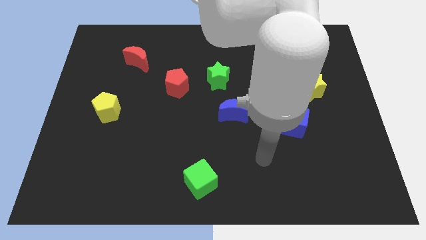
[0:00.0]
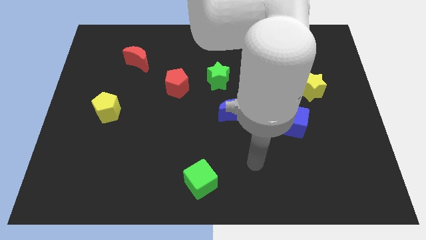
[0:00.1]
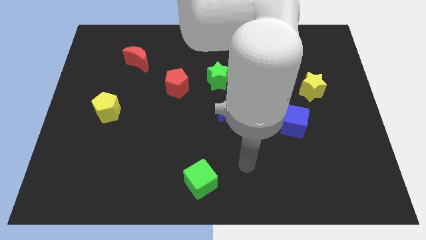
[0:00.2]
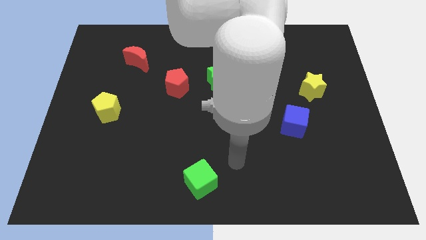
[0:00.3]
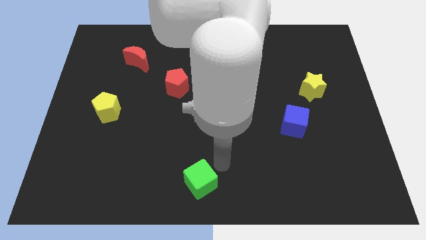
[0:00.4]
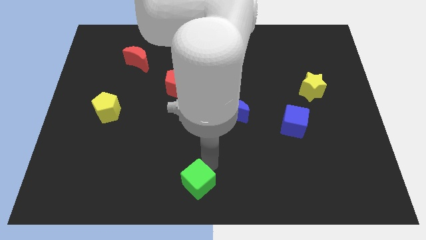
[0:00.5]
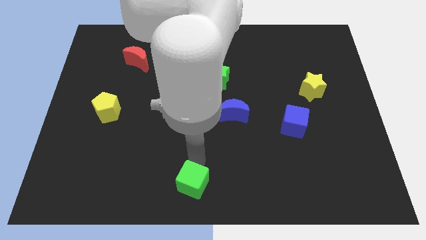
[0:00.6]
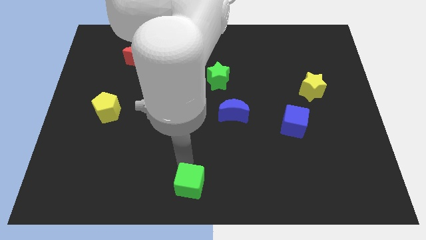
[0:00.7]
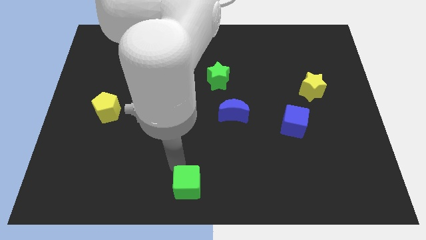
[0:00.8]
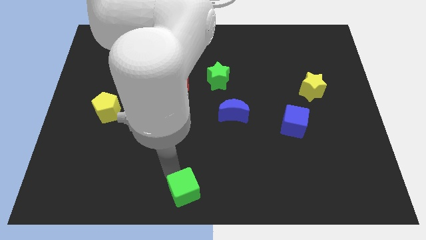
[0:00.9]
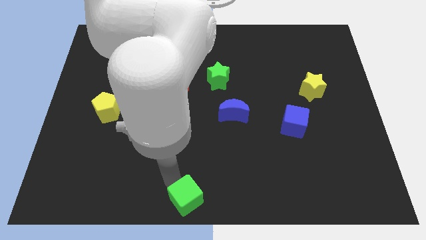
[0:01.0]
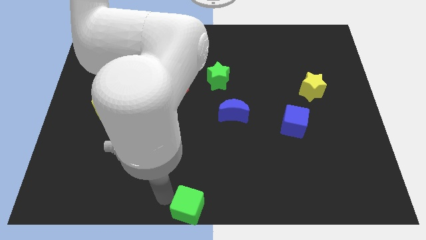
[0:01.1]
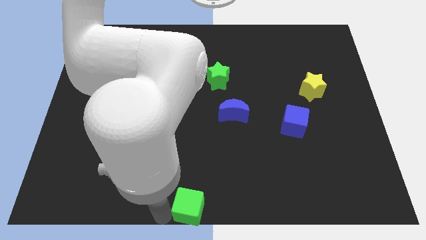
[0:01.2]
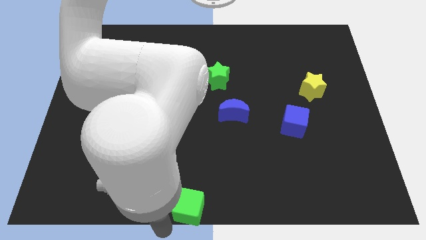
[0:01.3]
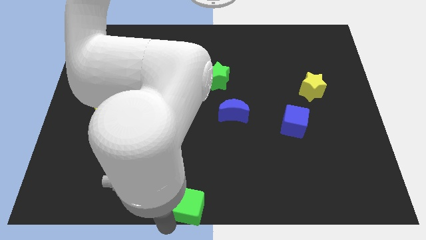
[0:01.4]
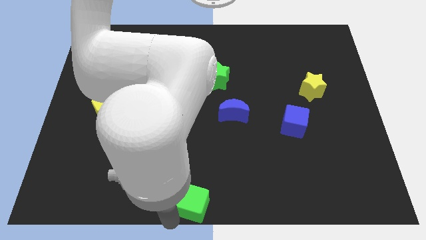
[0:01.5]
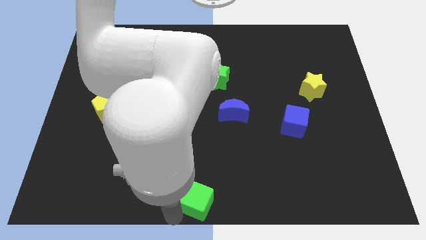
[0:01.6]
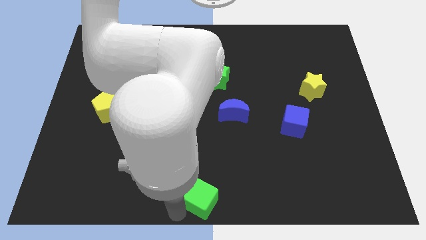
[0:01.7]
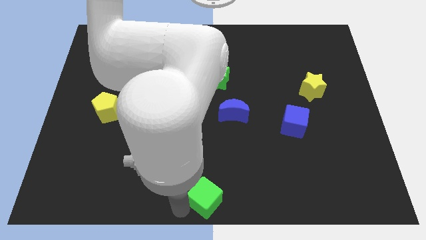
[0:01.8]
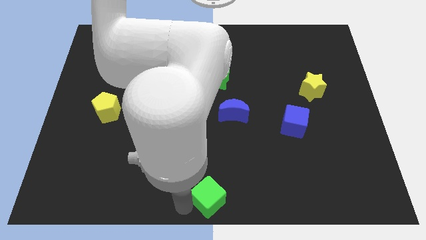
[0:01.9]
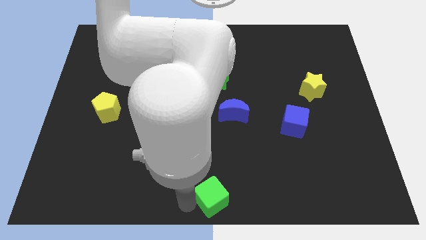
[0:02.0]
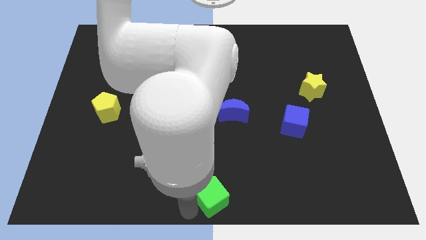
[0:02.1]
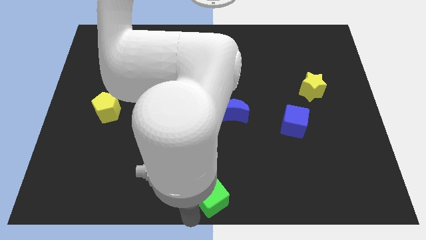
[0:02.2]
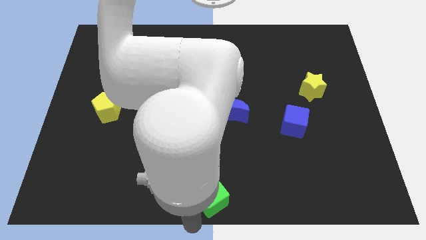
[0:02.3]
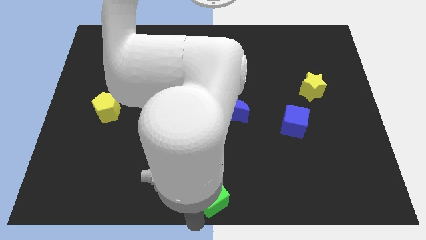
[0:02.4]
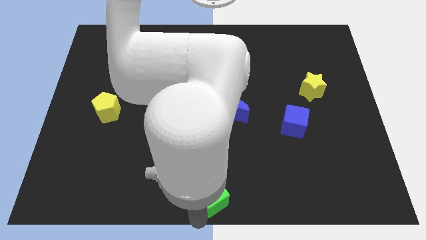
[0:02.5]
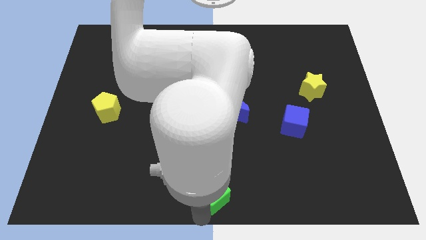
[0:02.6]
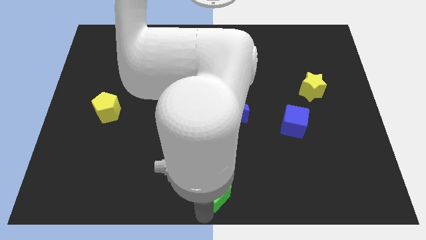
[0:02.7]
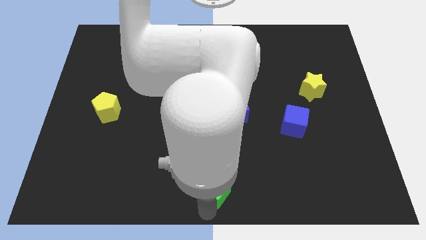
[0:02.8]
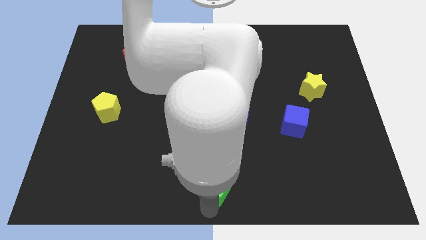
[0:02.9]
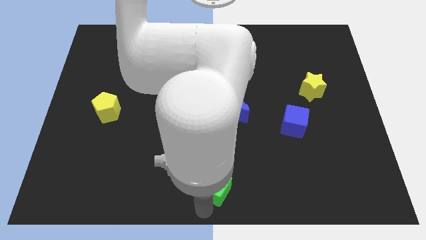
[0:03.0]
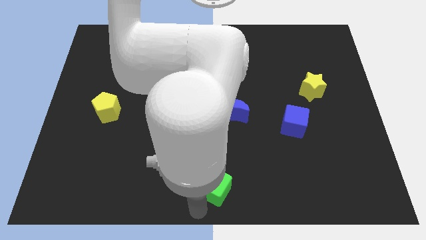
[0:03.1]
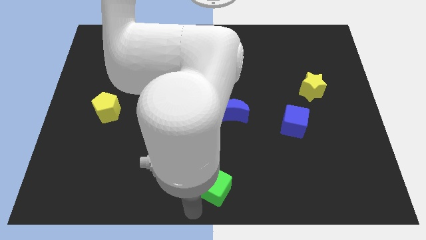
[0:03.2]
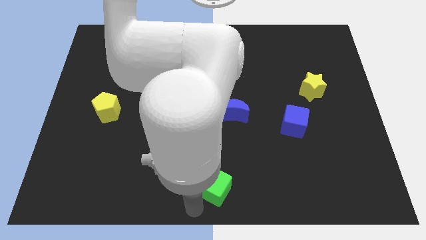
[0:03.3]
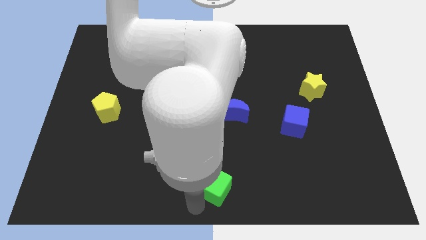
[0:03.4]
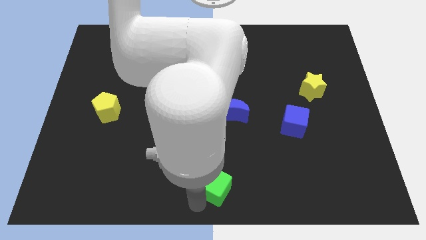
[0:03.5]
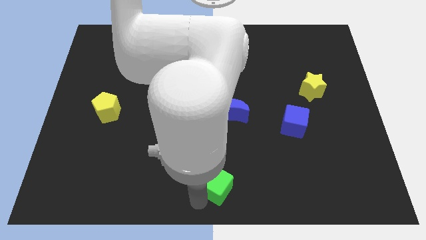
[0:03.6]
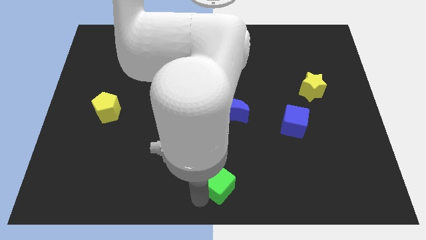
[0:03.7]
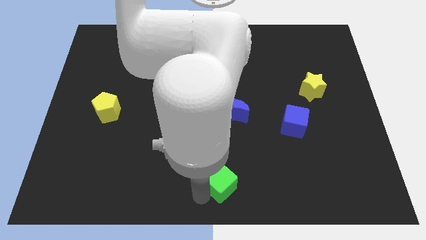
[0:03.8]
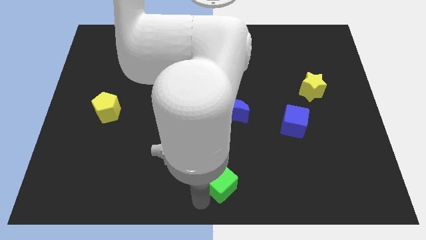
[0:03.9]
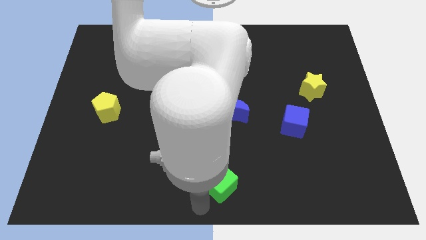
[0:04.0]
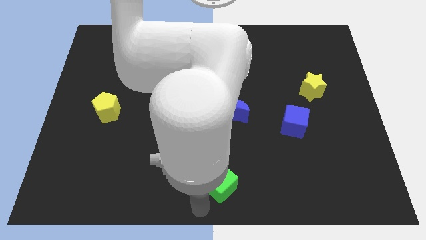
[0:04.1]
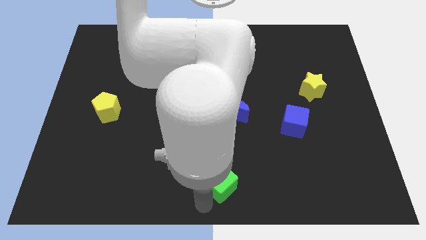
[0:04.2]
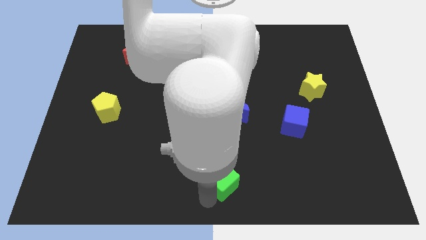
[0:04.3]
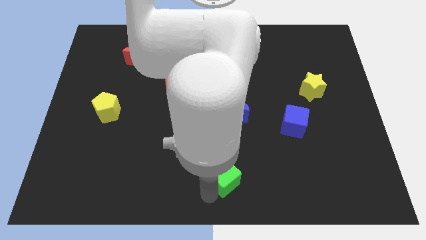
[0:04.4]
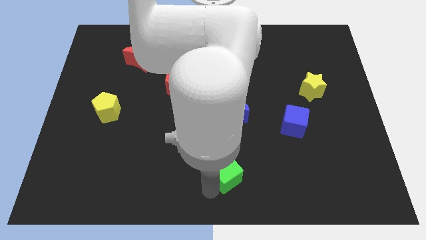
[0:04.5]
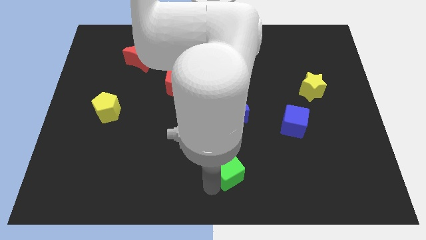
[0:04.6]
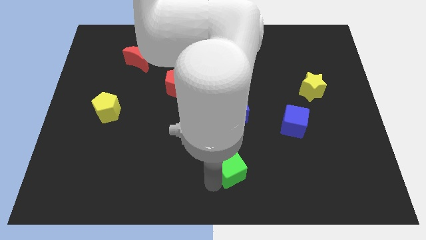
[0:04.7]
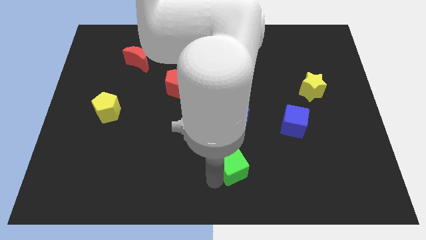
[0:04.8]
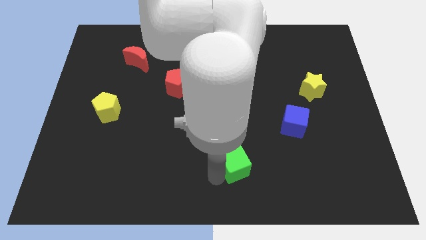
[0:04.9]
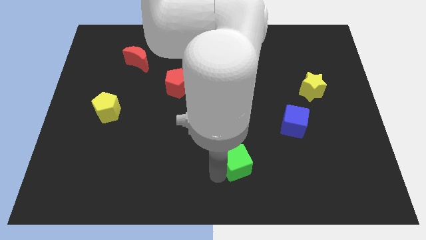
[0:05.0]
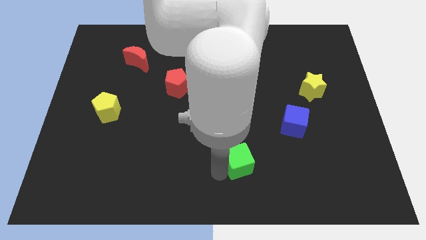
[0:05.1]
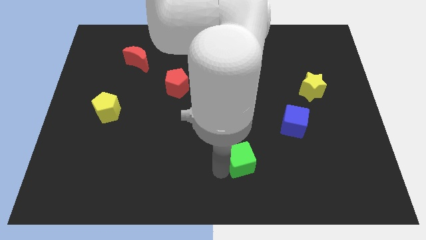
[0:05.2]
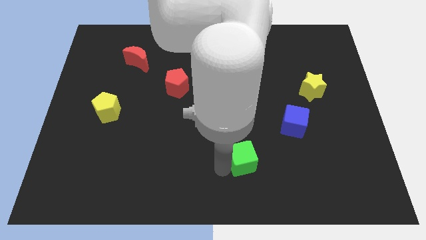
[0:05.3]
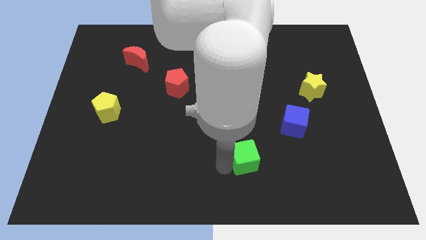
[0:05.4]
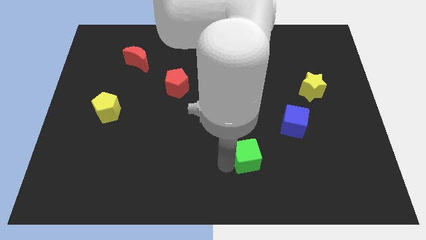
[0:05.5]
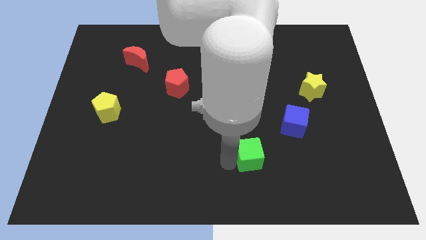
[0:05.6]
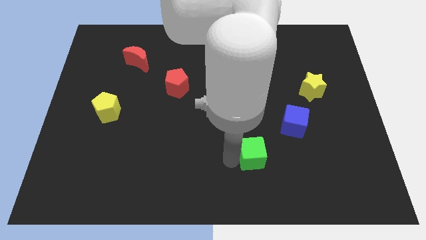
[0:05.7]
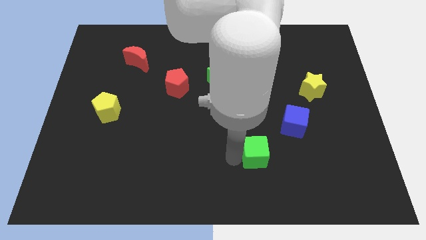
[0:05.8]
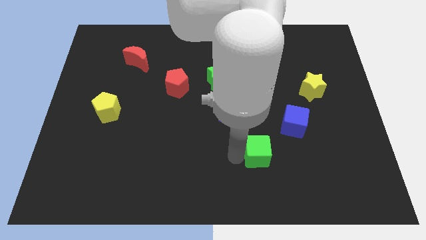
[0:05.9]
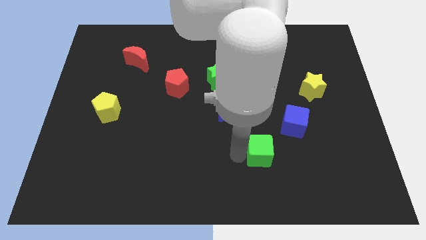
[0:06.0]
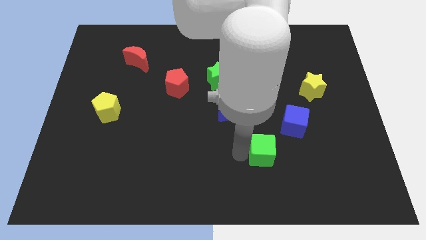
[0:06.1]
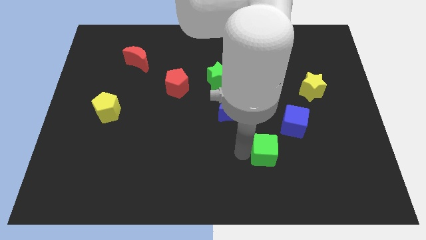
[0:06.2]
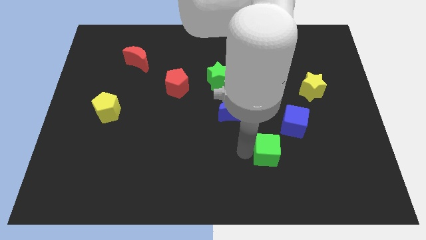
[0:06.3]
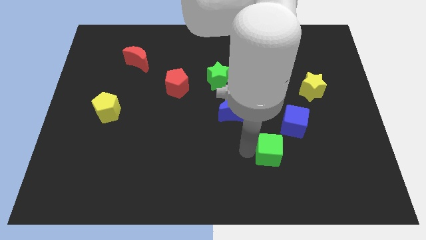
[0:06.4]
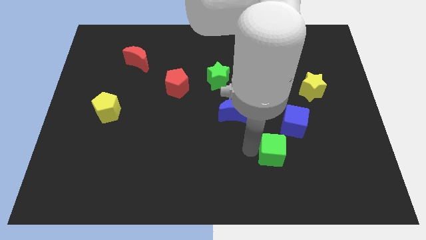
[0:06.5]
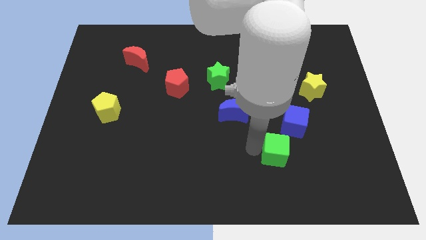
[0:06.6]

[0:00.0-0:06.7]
slide the green cube below the blue cube
